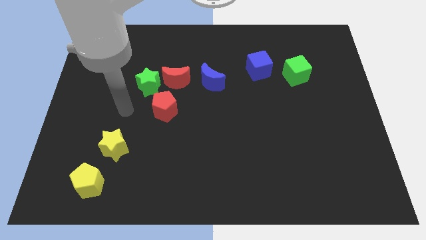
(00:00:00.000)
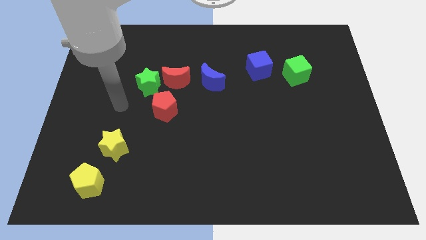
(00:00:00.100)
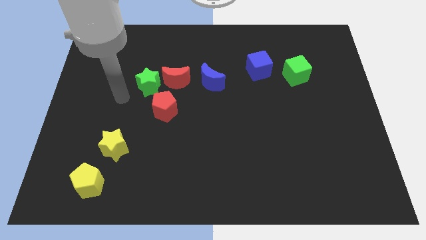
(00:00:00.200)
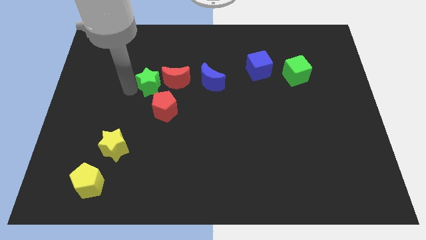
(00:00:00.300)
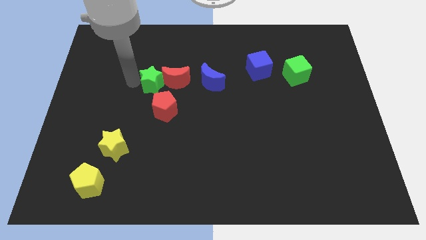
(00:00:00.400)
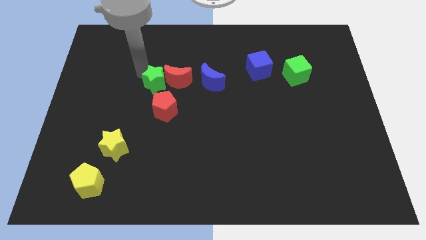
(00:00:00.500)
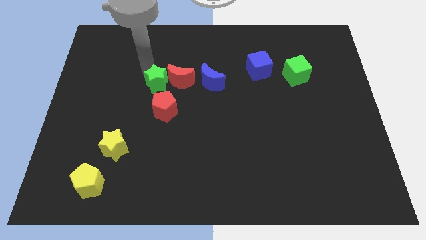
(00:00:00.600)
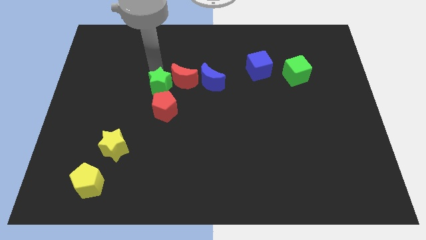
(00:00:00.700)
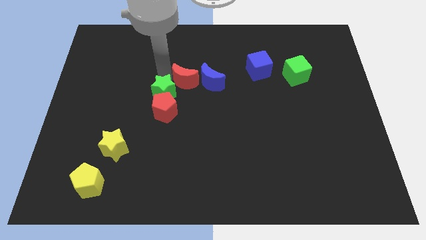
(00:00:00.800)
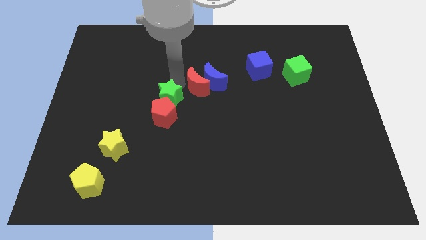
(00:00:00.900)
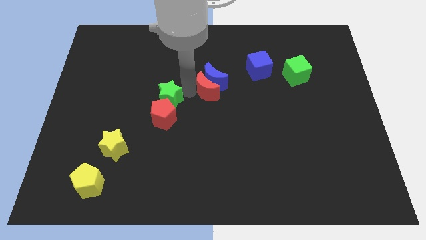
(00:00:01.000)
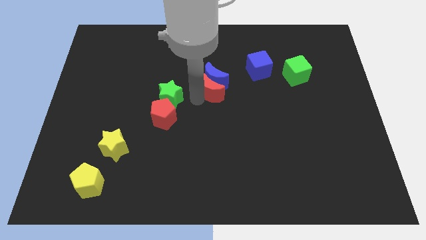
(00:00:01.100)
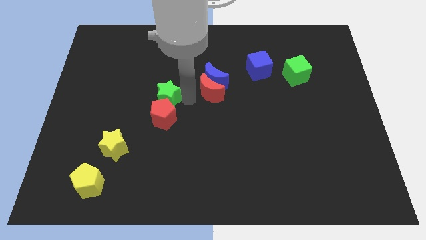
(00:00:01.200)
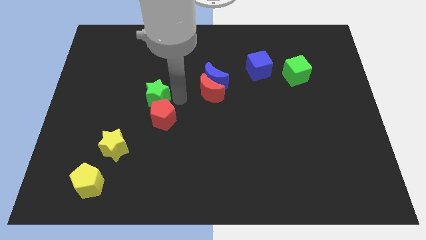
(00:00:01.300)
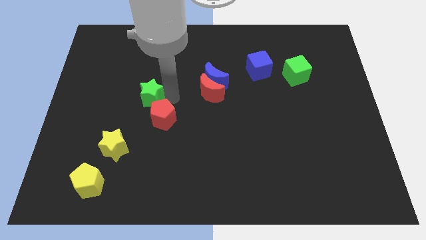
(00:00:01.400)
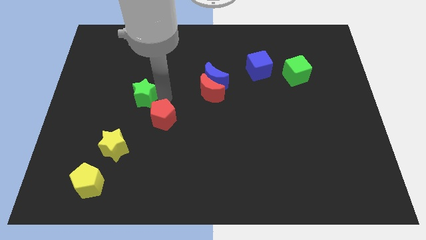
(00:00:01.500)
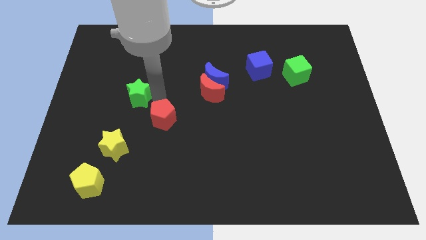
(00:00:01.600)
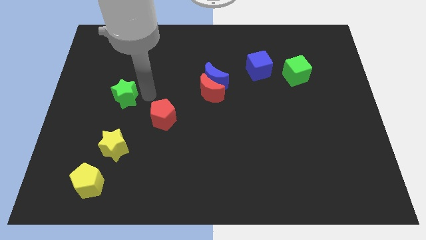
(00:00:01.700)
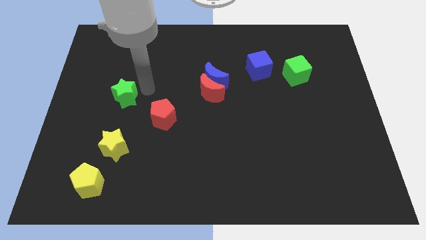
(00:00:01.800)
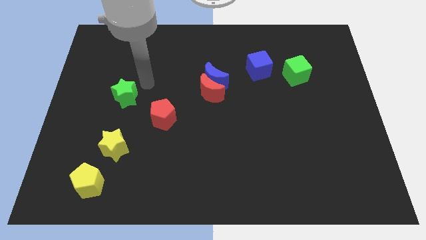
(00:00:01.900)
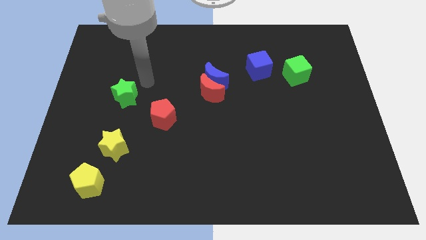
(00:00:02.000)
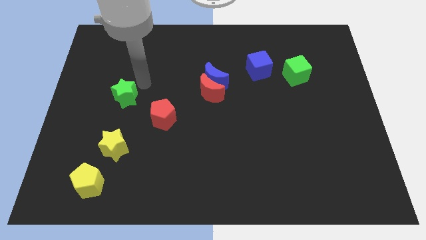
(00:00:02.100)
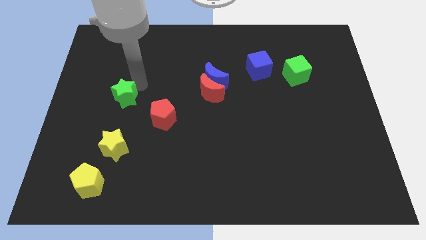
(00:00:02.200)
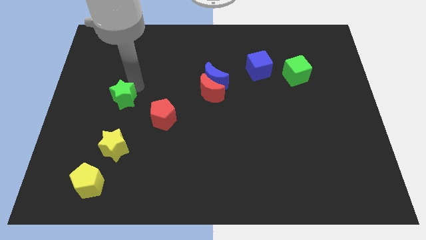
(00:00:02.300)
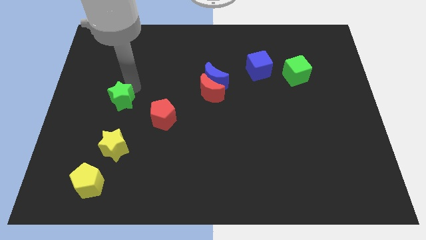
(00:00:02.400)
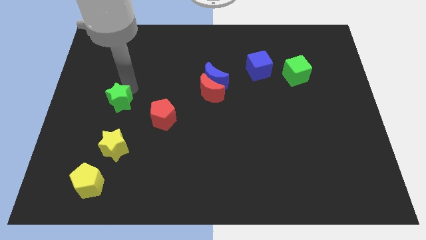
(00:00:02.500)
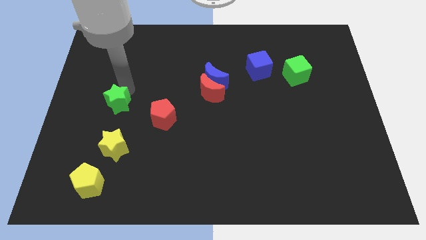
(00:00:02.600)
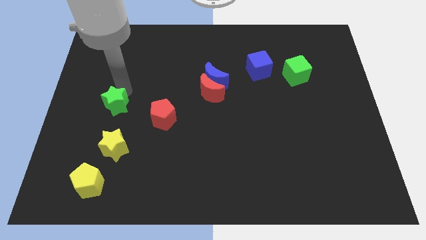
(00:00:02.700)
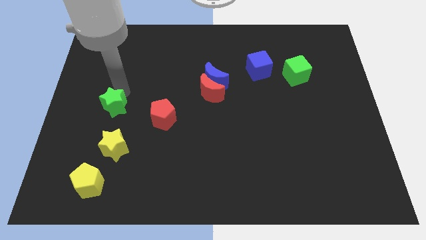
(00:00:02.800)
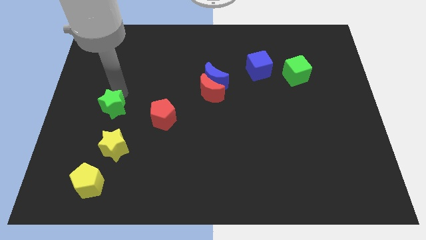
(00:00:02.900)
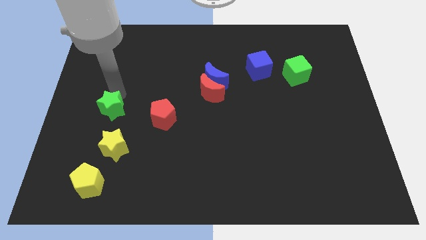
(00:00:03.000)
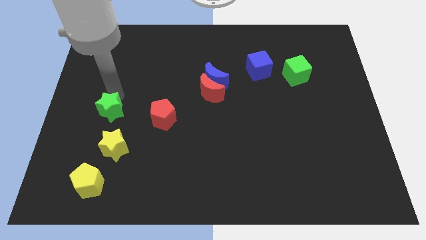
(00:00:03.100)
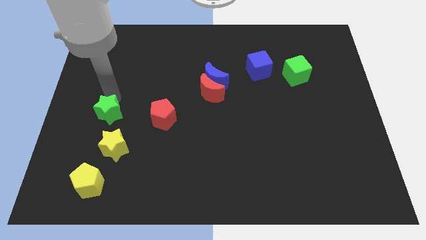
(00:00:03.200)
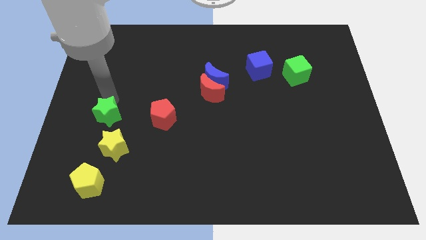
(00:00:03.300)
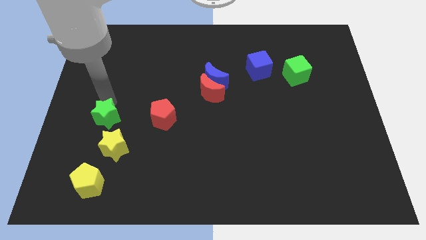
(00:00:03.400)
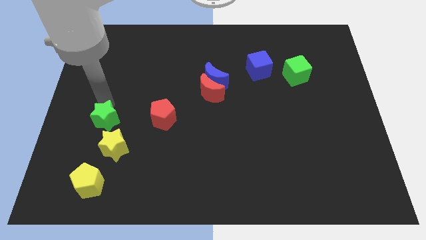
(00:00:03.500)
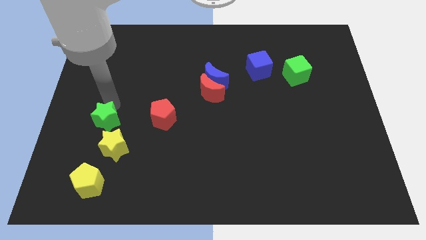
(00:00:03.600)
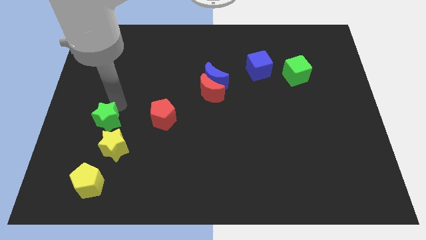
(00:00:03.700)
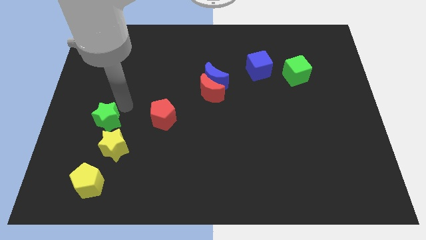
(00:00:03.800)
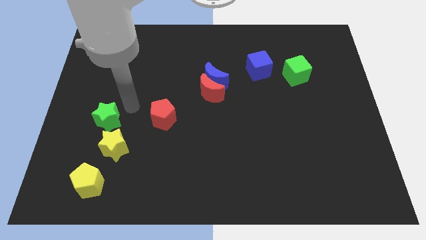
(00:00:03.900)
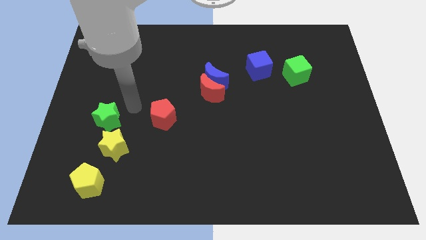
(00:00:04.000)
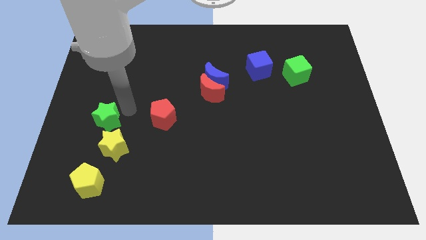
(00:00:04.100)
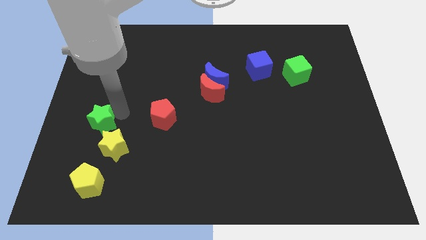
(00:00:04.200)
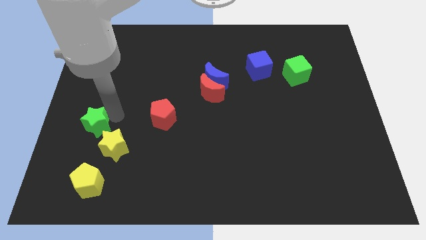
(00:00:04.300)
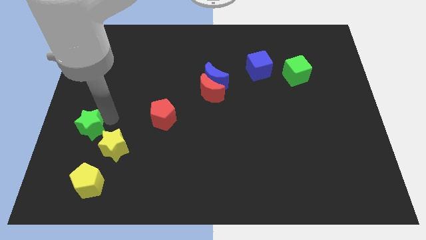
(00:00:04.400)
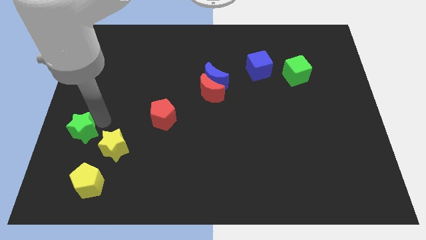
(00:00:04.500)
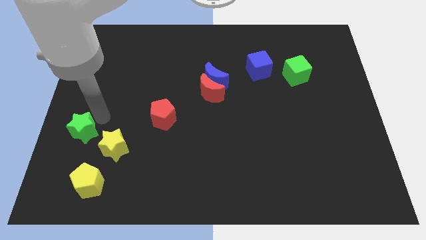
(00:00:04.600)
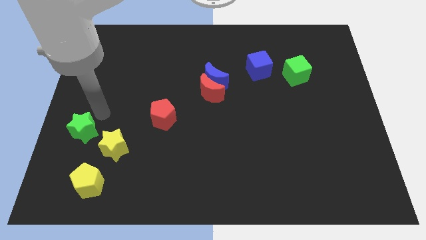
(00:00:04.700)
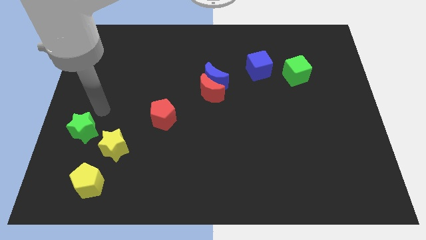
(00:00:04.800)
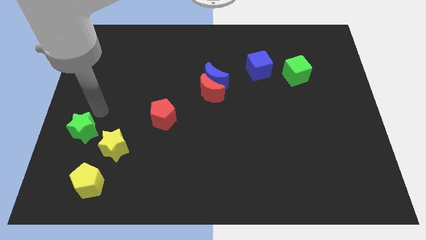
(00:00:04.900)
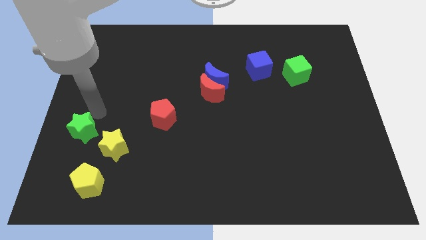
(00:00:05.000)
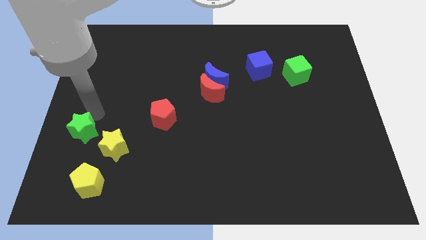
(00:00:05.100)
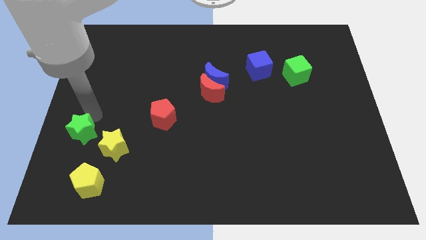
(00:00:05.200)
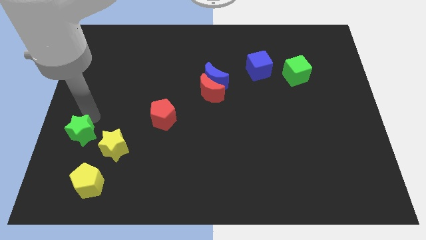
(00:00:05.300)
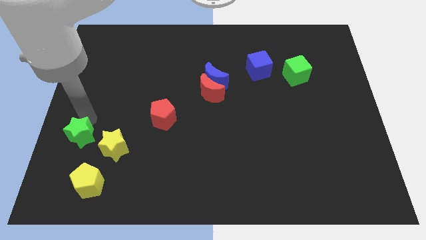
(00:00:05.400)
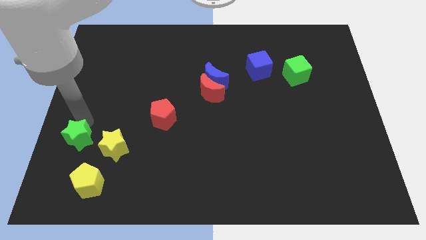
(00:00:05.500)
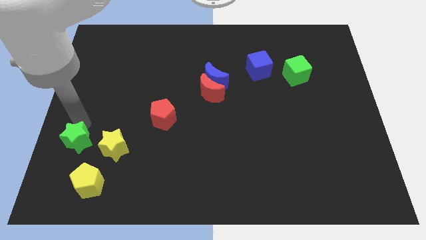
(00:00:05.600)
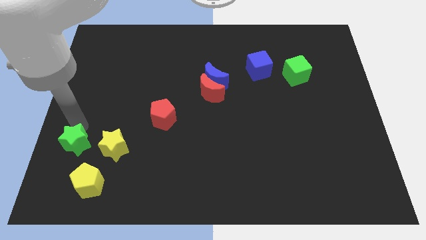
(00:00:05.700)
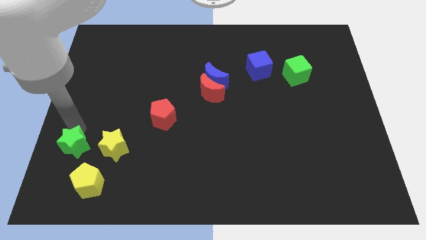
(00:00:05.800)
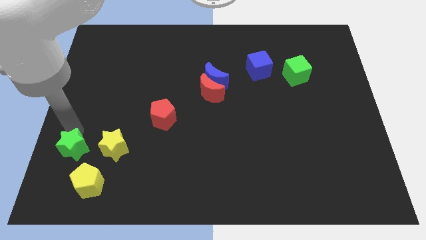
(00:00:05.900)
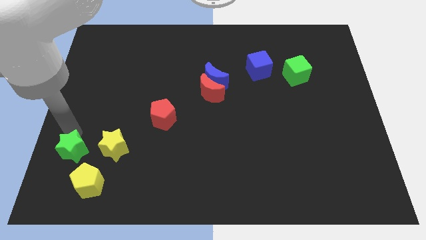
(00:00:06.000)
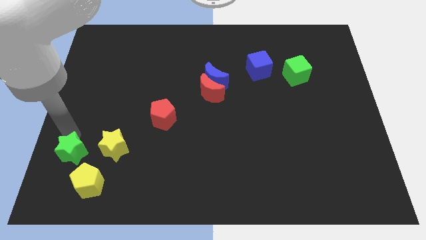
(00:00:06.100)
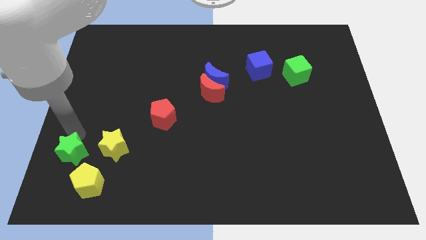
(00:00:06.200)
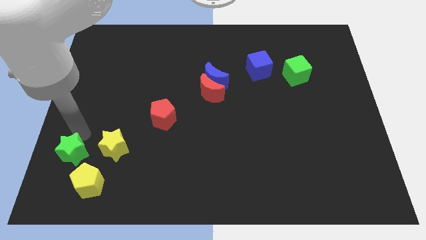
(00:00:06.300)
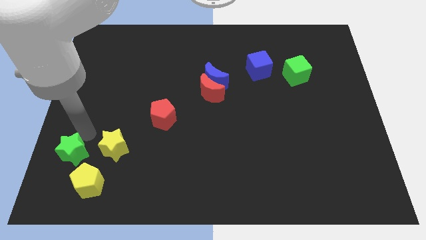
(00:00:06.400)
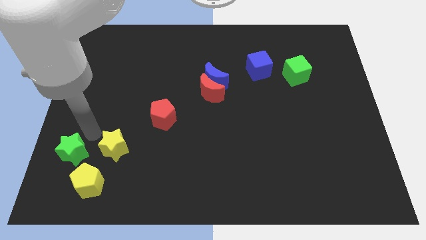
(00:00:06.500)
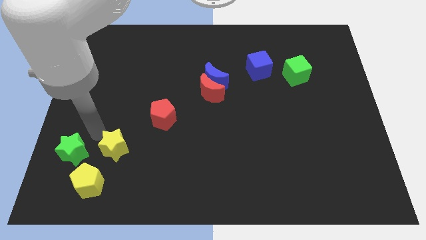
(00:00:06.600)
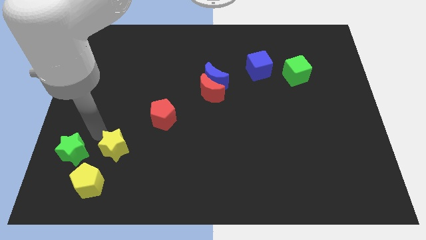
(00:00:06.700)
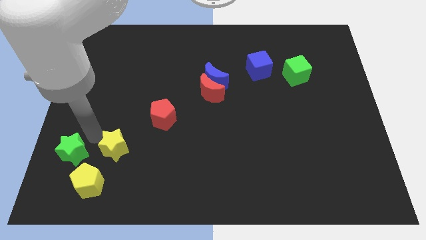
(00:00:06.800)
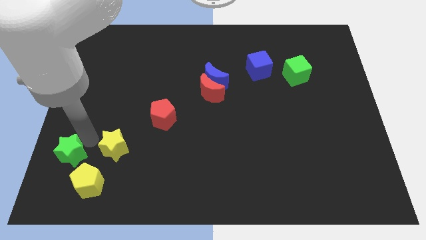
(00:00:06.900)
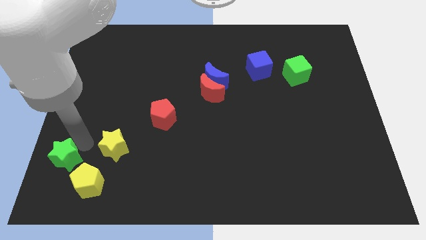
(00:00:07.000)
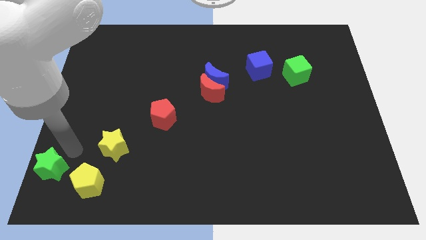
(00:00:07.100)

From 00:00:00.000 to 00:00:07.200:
move the green star to the bottom left of the board

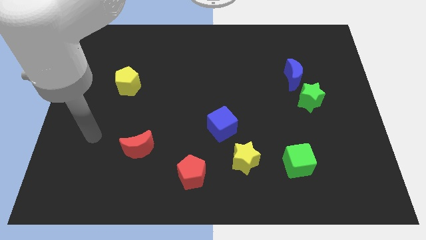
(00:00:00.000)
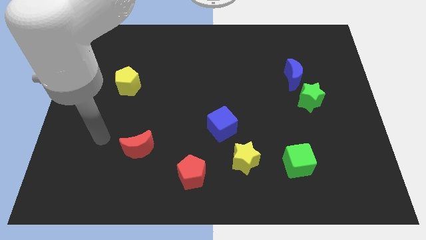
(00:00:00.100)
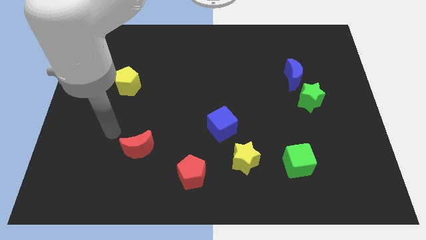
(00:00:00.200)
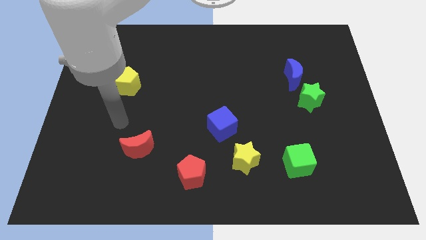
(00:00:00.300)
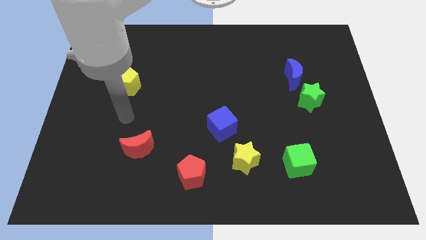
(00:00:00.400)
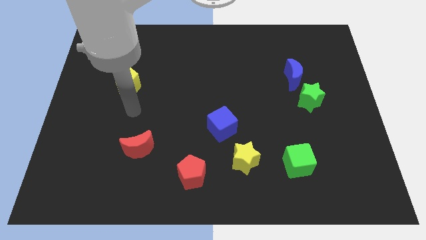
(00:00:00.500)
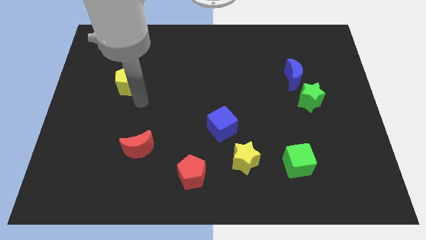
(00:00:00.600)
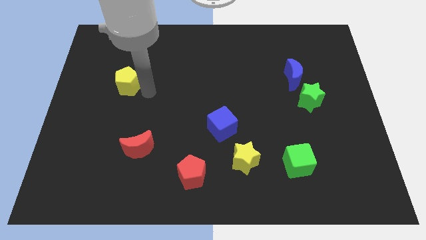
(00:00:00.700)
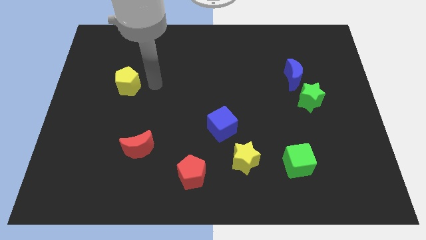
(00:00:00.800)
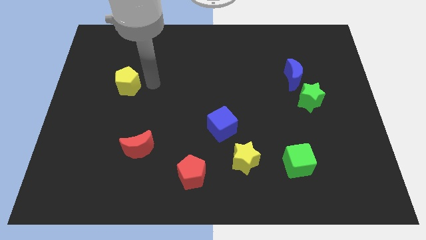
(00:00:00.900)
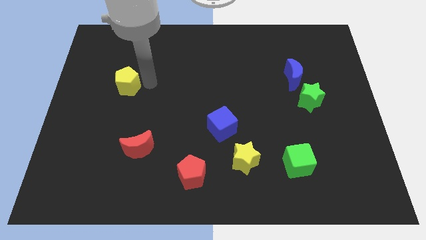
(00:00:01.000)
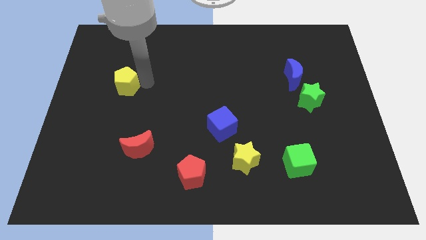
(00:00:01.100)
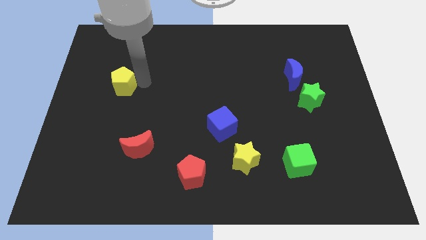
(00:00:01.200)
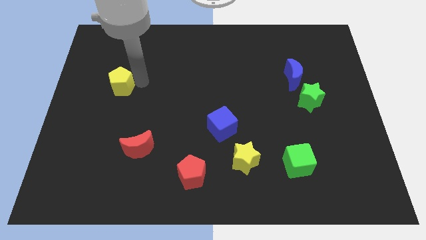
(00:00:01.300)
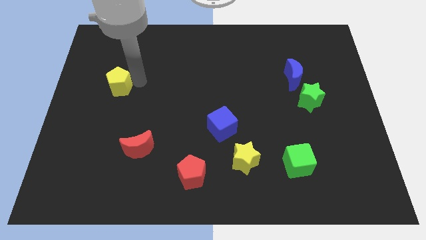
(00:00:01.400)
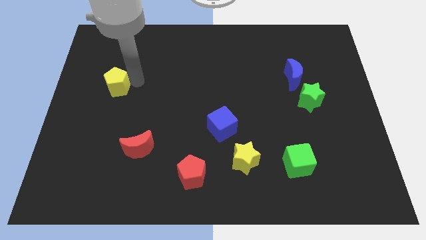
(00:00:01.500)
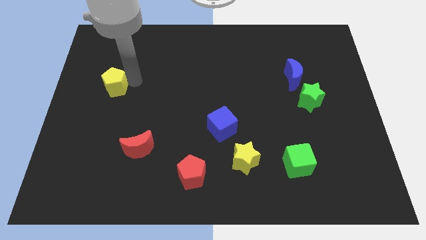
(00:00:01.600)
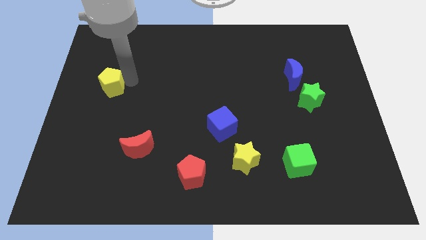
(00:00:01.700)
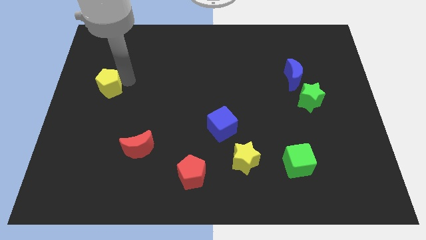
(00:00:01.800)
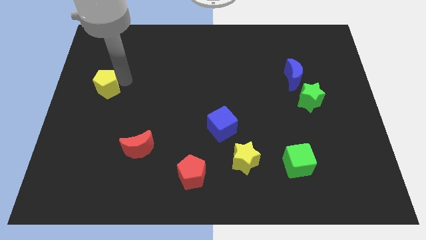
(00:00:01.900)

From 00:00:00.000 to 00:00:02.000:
put the yellow pentagon to the center left
